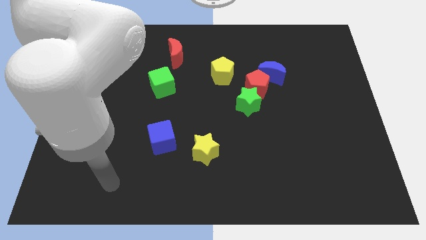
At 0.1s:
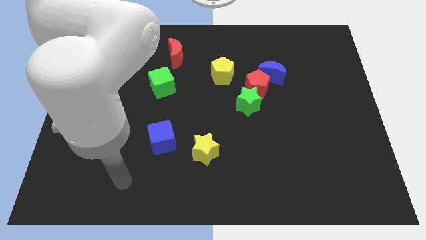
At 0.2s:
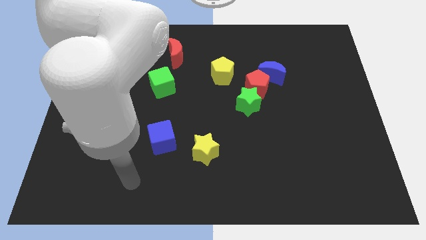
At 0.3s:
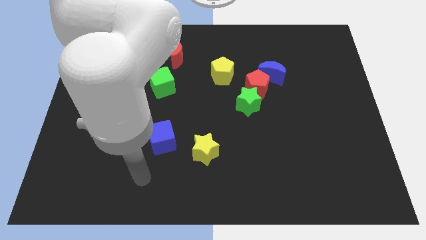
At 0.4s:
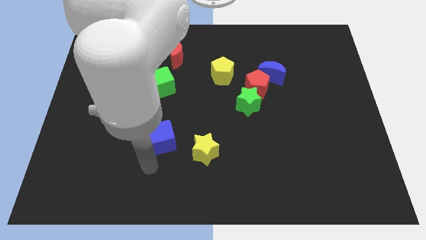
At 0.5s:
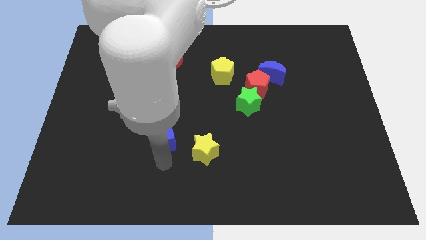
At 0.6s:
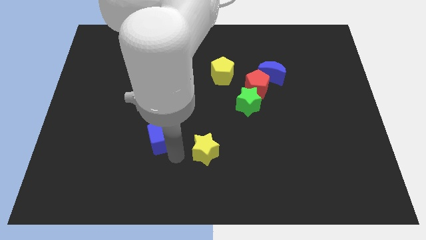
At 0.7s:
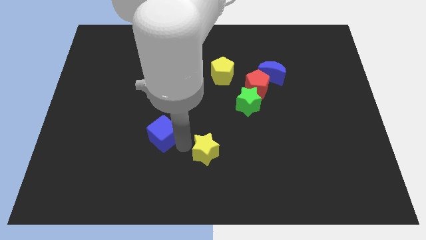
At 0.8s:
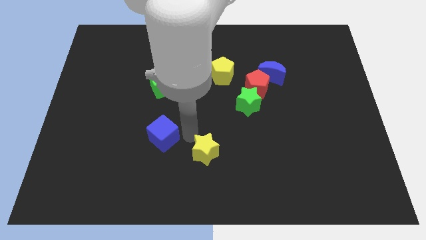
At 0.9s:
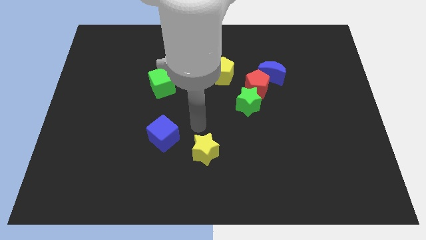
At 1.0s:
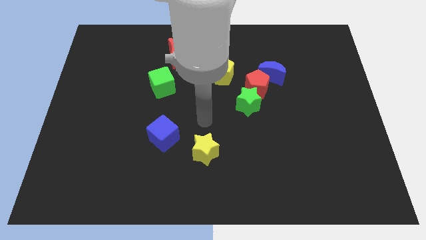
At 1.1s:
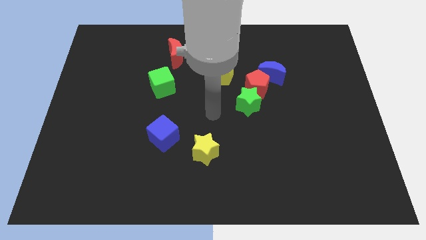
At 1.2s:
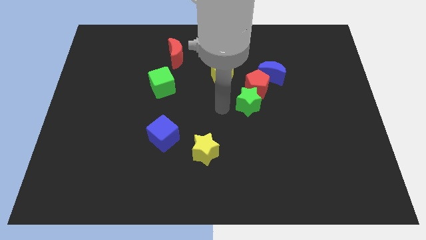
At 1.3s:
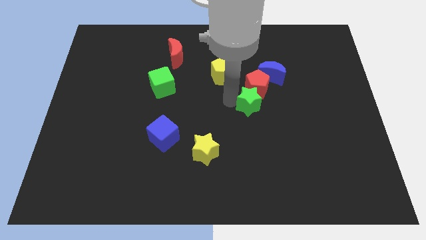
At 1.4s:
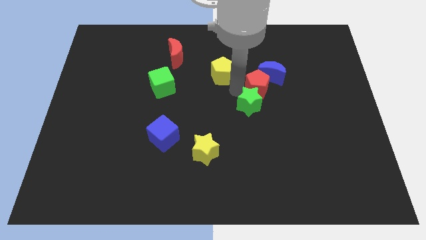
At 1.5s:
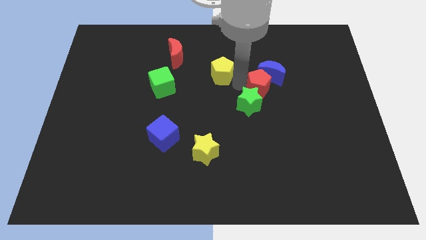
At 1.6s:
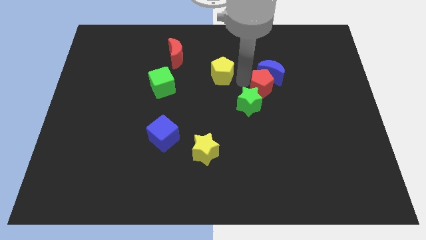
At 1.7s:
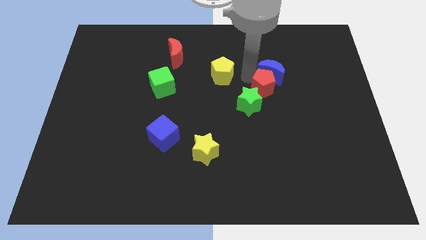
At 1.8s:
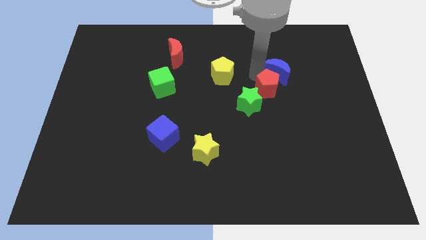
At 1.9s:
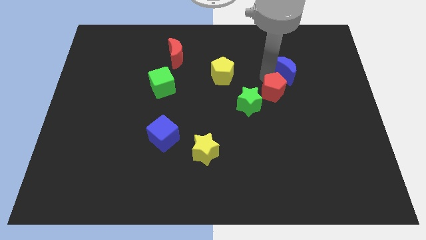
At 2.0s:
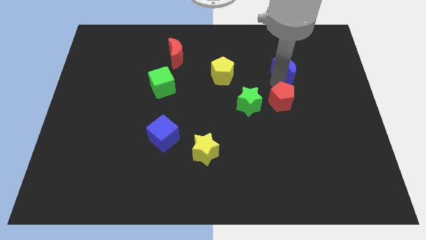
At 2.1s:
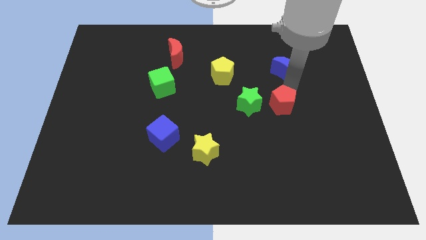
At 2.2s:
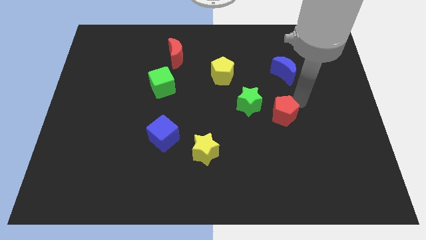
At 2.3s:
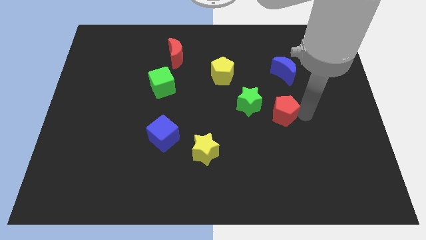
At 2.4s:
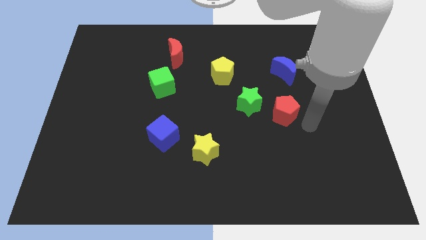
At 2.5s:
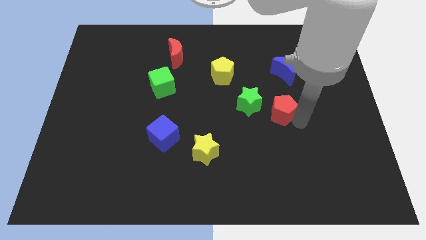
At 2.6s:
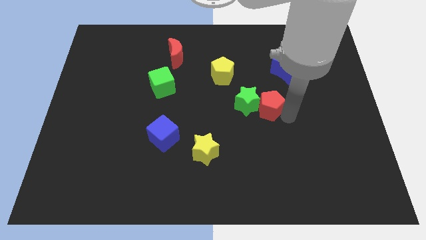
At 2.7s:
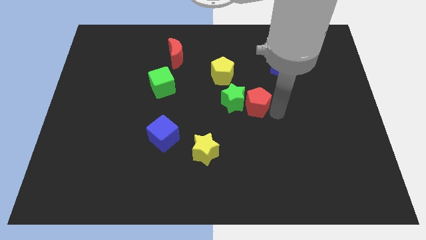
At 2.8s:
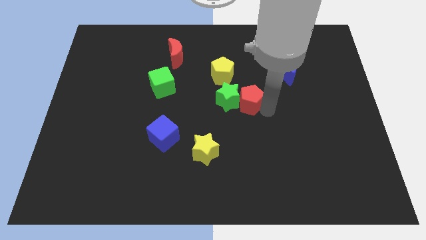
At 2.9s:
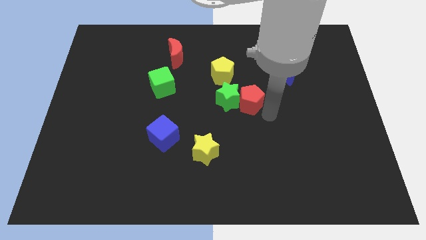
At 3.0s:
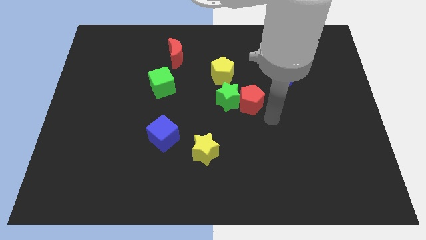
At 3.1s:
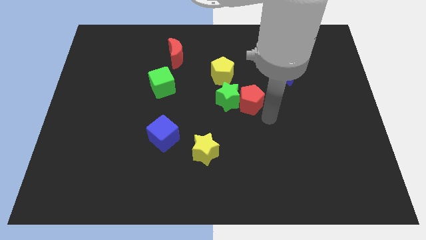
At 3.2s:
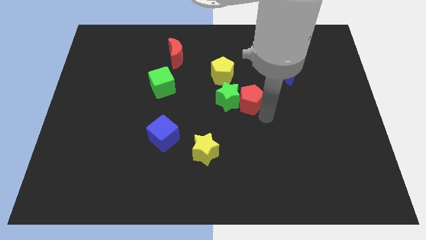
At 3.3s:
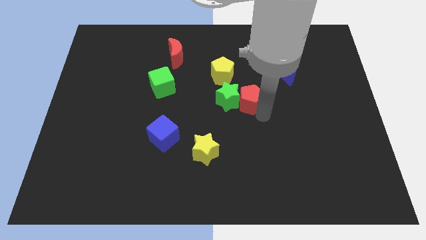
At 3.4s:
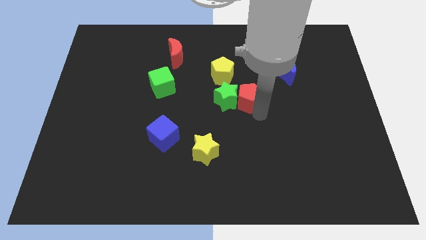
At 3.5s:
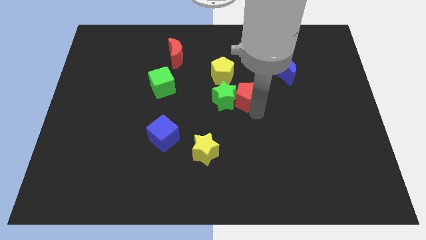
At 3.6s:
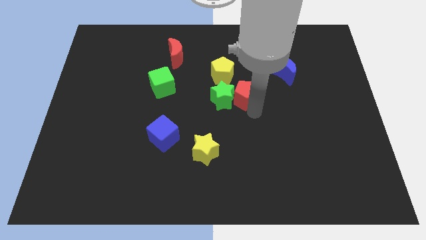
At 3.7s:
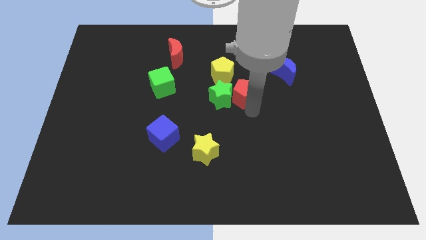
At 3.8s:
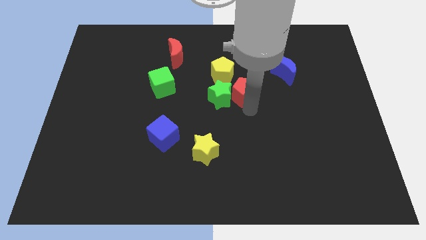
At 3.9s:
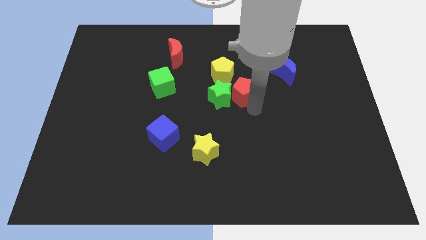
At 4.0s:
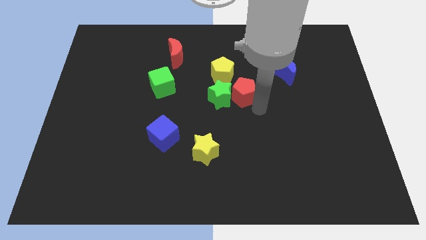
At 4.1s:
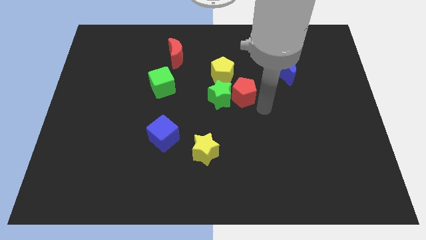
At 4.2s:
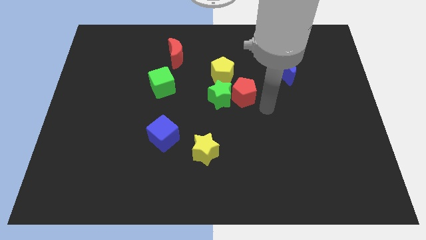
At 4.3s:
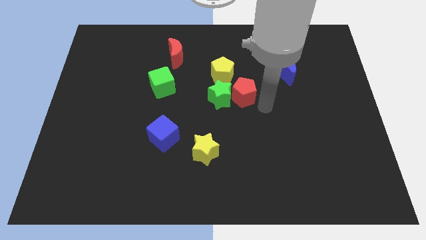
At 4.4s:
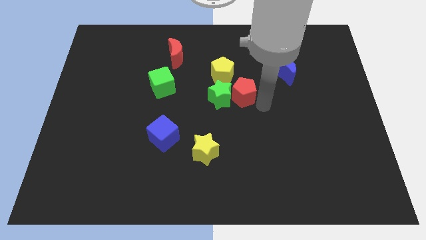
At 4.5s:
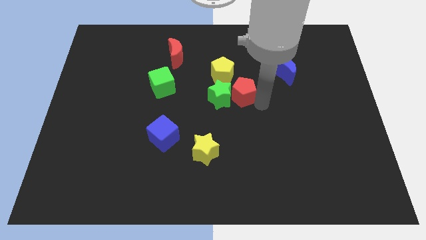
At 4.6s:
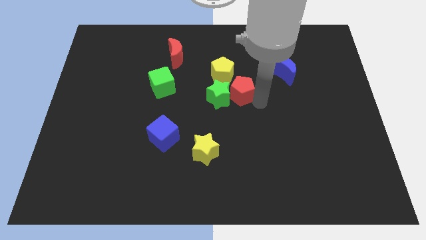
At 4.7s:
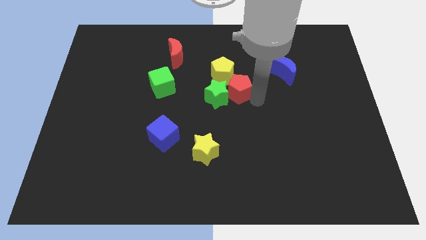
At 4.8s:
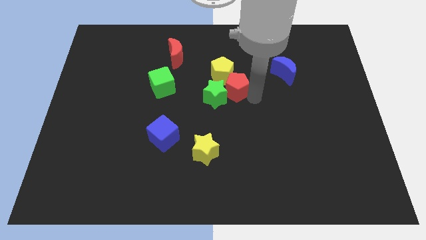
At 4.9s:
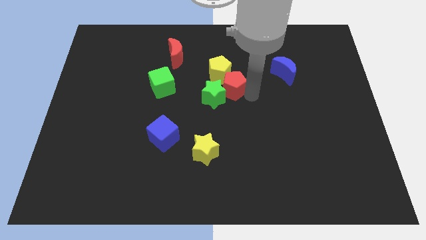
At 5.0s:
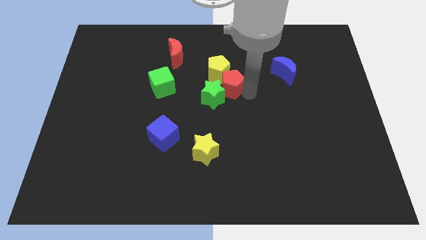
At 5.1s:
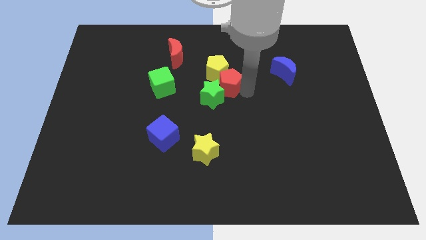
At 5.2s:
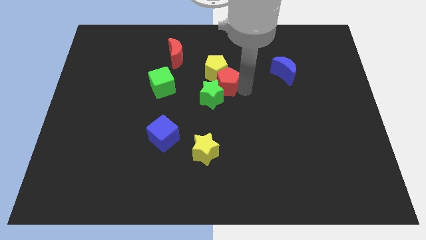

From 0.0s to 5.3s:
push the red pentagon to the right side of the green cube

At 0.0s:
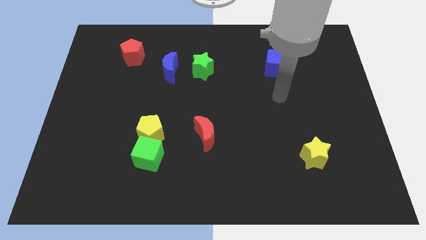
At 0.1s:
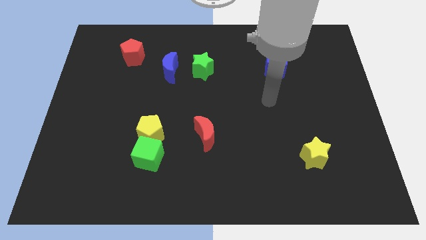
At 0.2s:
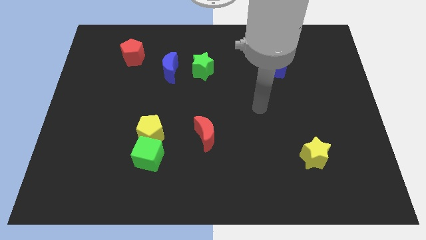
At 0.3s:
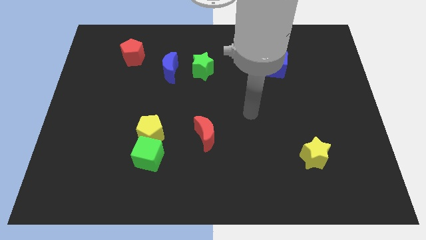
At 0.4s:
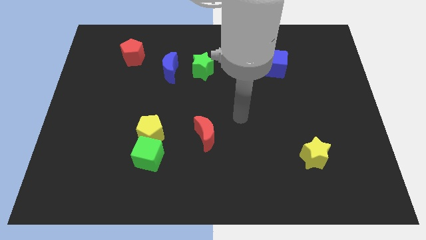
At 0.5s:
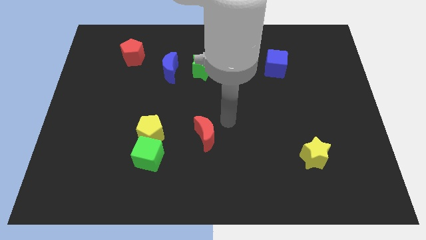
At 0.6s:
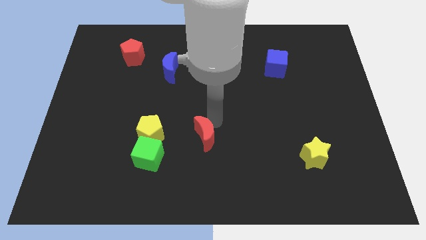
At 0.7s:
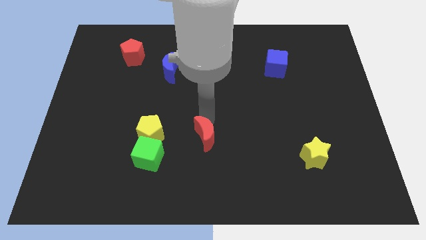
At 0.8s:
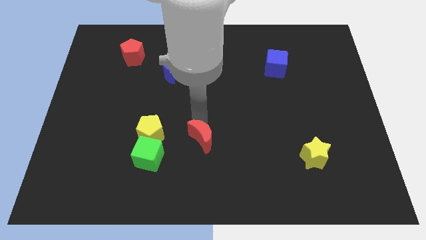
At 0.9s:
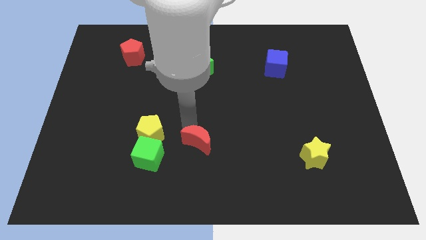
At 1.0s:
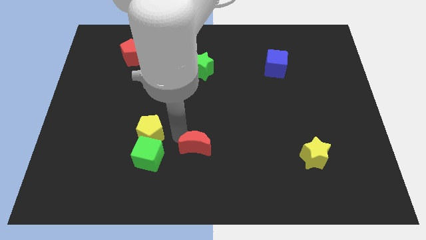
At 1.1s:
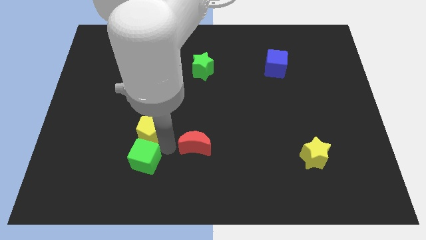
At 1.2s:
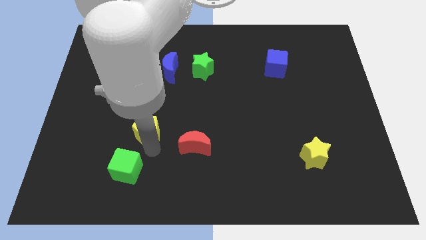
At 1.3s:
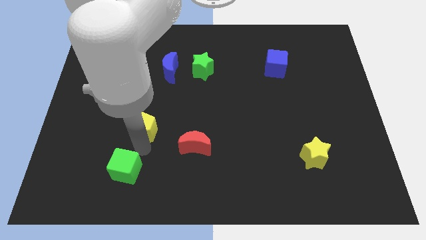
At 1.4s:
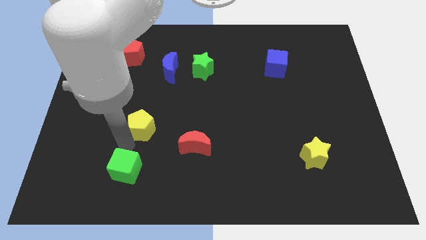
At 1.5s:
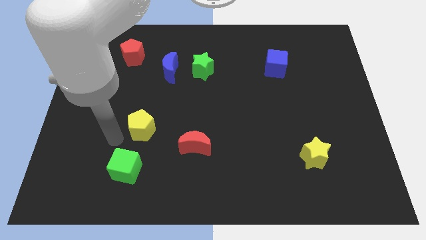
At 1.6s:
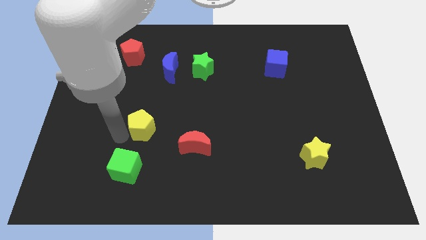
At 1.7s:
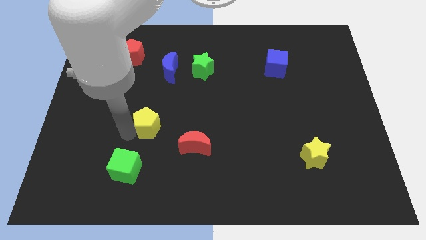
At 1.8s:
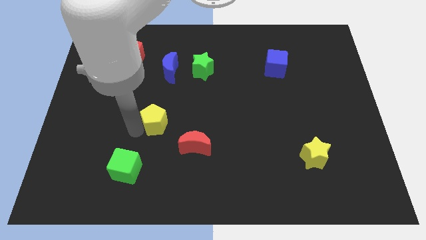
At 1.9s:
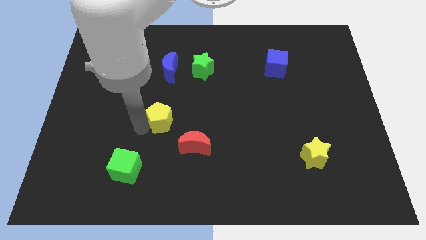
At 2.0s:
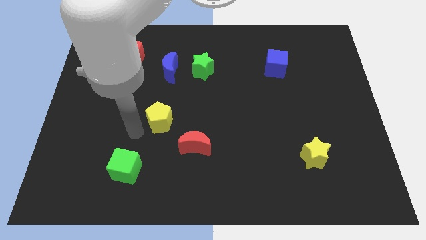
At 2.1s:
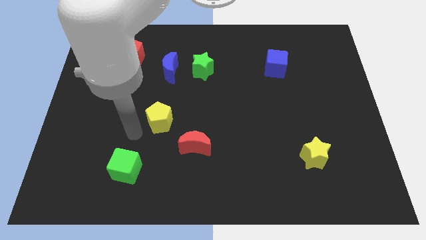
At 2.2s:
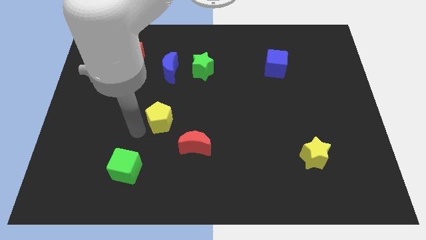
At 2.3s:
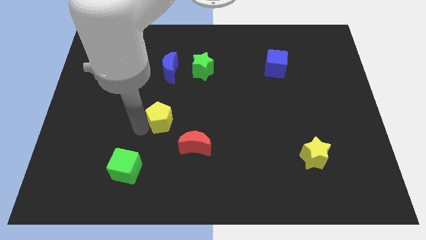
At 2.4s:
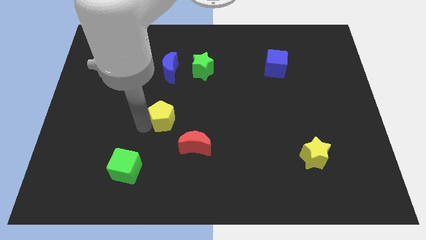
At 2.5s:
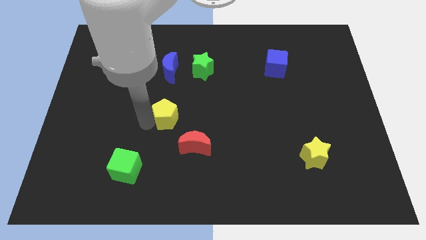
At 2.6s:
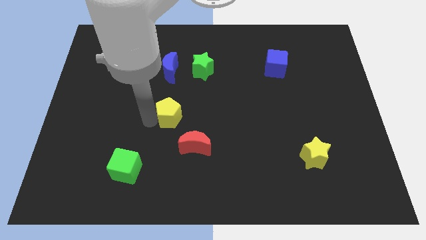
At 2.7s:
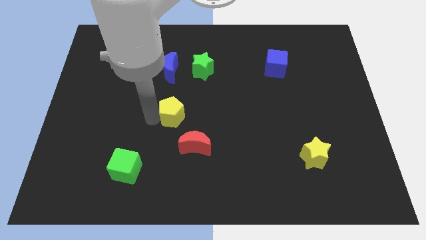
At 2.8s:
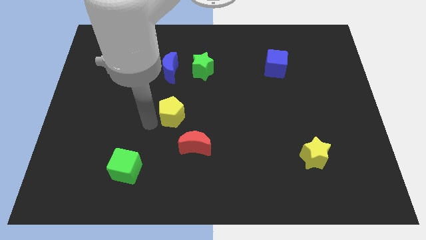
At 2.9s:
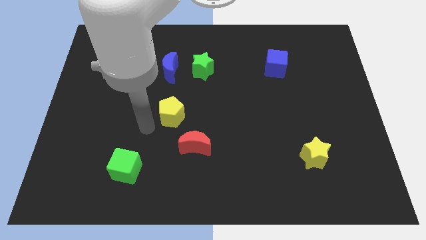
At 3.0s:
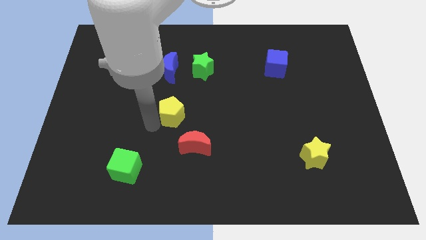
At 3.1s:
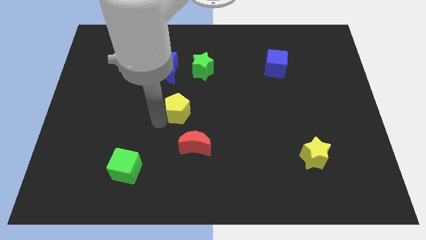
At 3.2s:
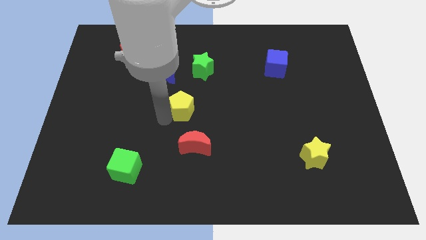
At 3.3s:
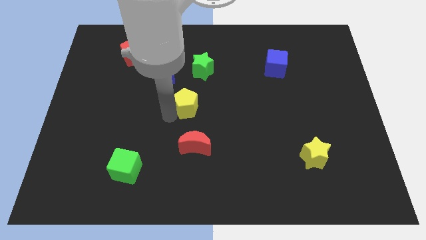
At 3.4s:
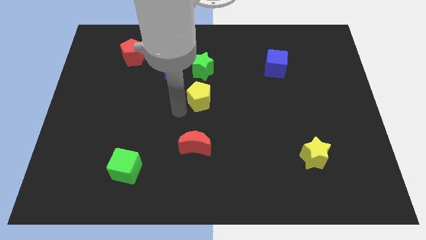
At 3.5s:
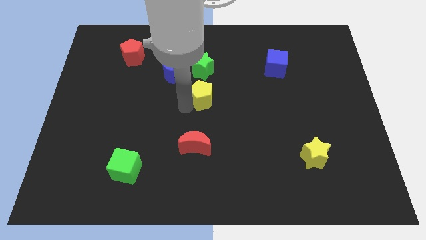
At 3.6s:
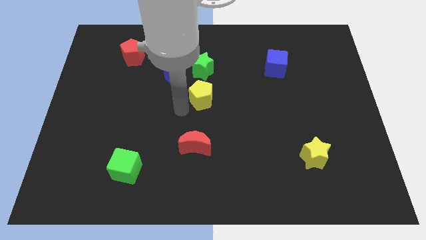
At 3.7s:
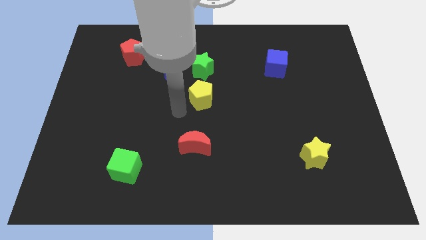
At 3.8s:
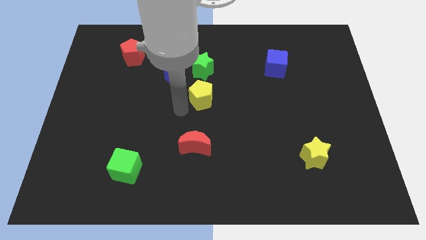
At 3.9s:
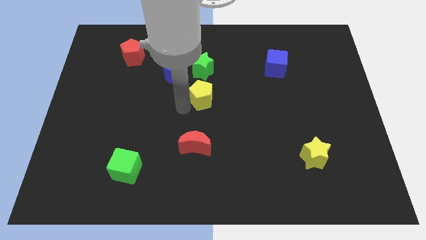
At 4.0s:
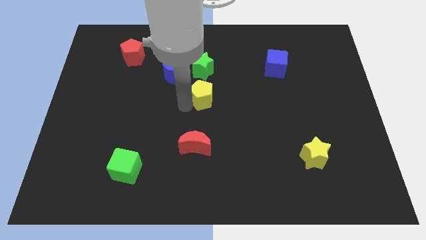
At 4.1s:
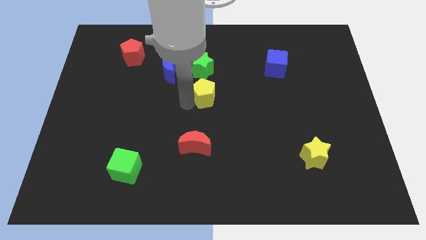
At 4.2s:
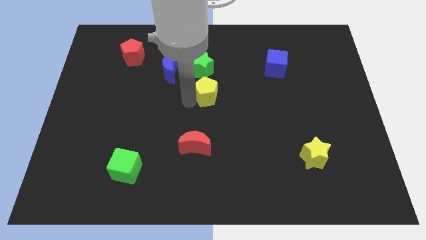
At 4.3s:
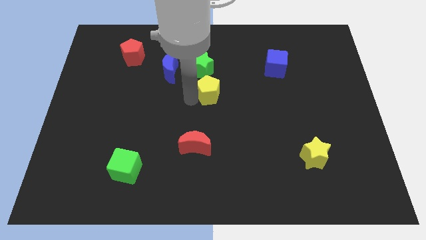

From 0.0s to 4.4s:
push the yellow pentagon to the bottom right of the green star
